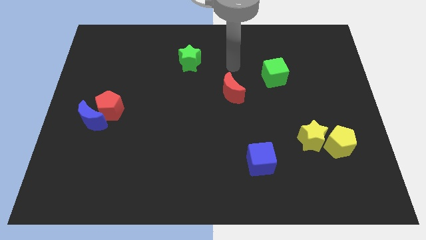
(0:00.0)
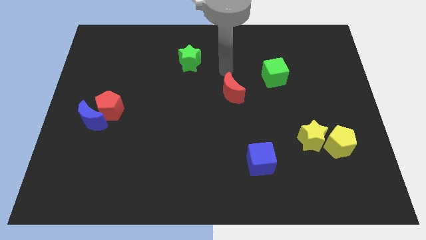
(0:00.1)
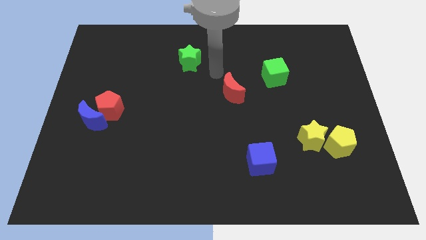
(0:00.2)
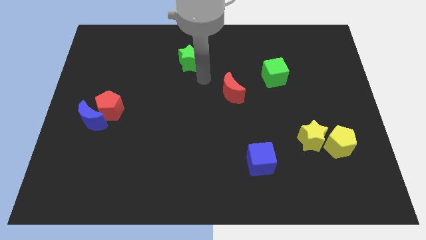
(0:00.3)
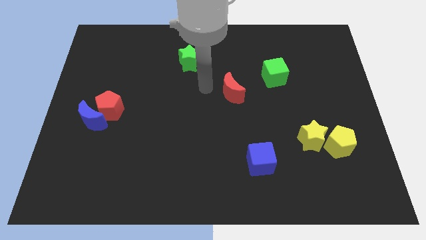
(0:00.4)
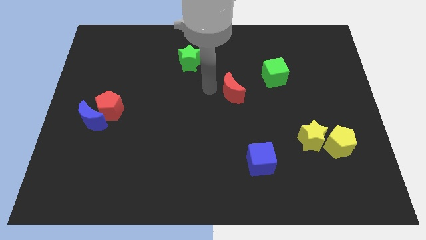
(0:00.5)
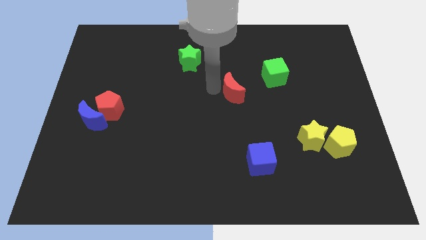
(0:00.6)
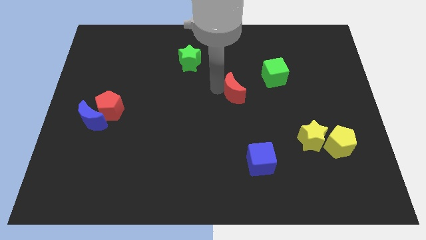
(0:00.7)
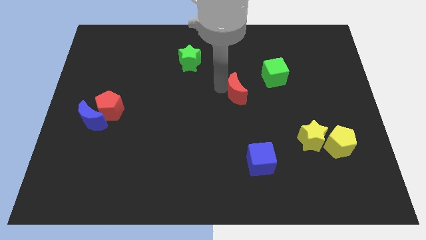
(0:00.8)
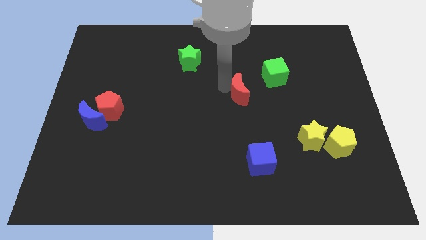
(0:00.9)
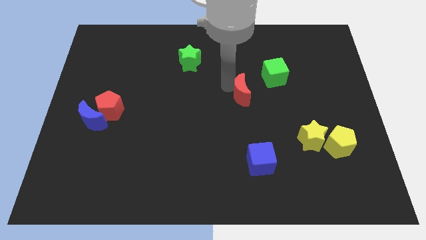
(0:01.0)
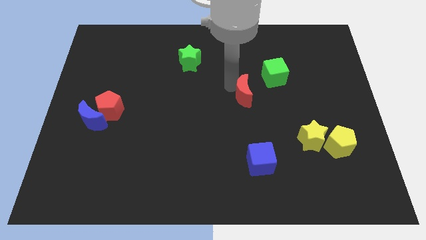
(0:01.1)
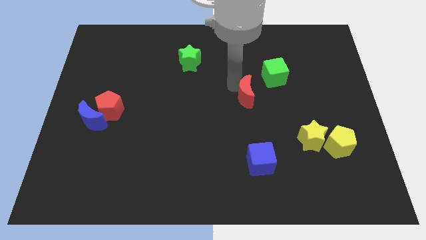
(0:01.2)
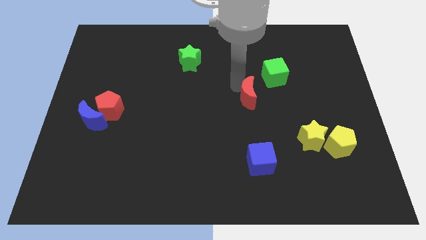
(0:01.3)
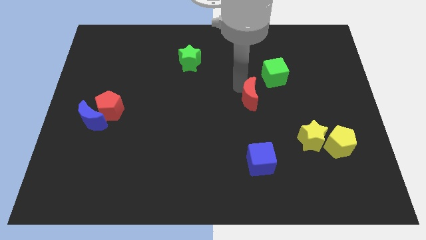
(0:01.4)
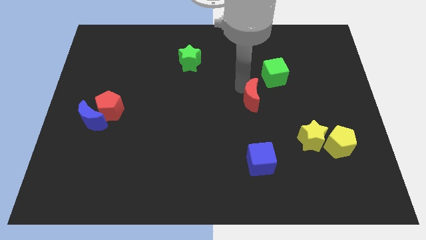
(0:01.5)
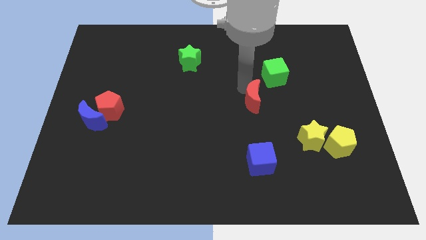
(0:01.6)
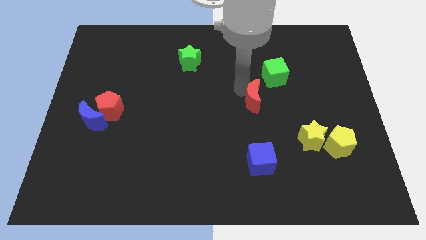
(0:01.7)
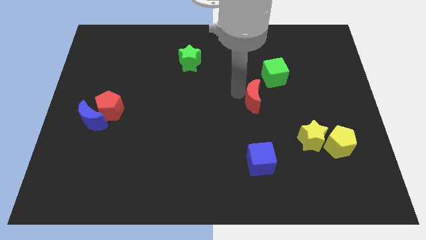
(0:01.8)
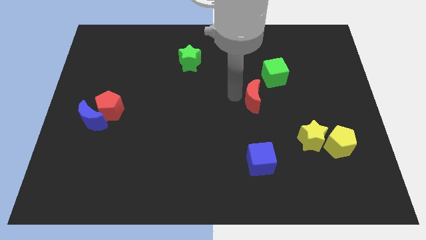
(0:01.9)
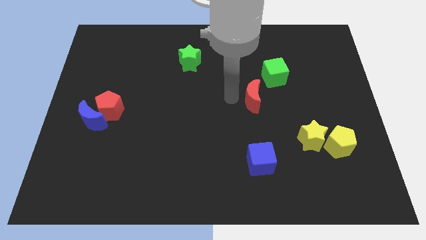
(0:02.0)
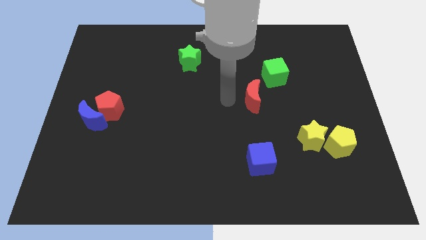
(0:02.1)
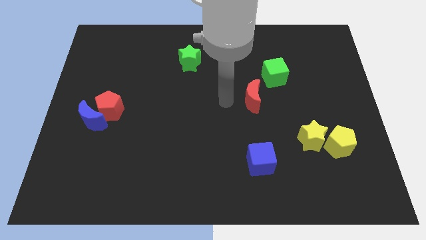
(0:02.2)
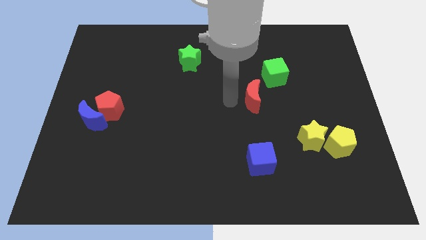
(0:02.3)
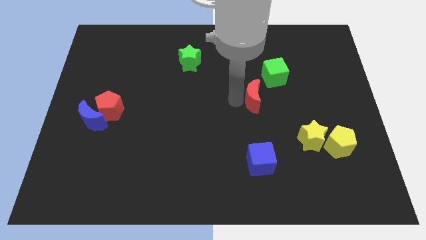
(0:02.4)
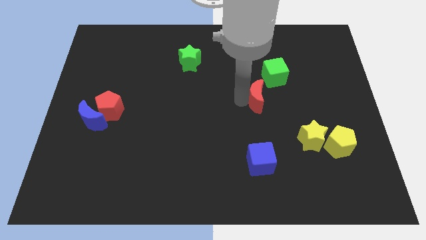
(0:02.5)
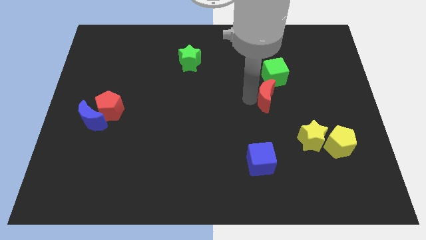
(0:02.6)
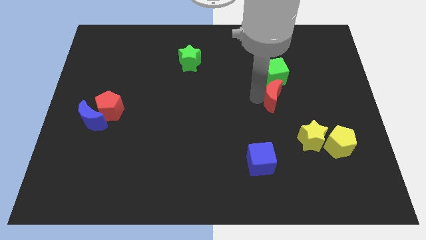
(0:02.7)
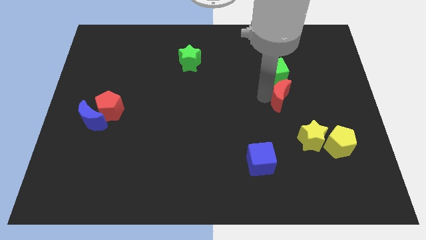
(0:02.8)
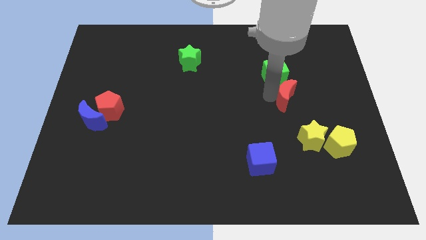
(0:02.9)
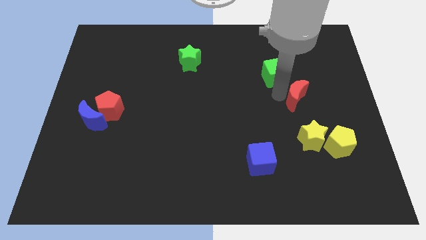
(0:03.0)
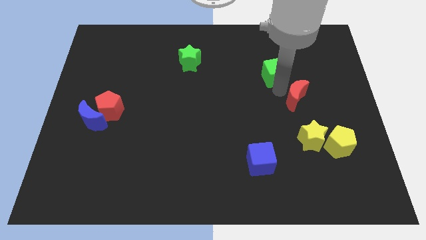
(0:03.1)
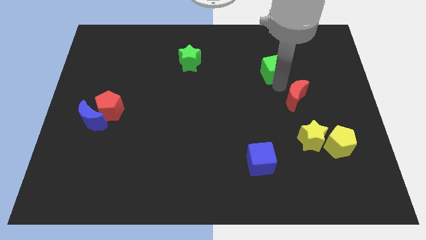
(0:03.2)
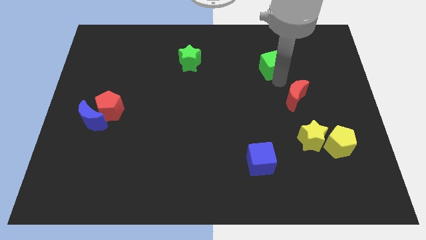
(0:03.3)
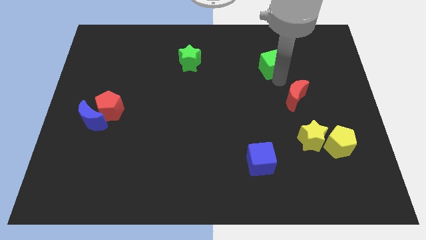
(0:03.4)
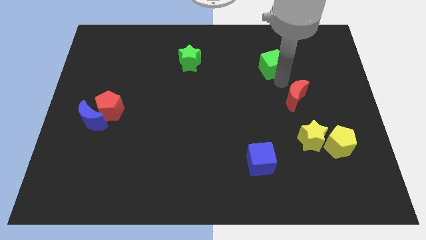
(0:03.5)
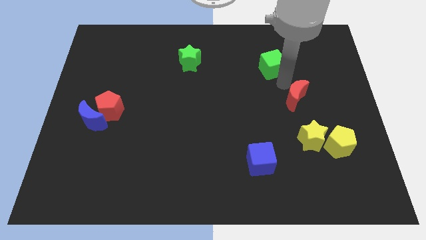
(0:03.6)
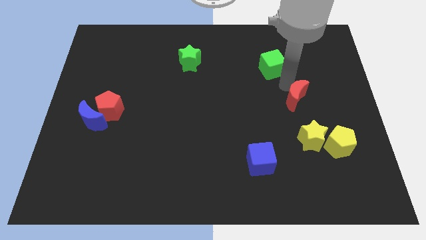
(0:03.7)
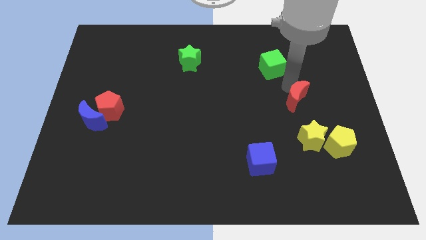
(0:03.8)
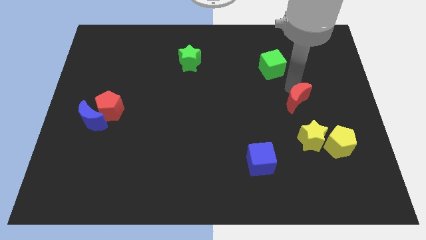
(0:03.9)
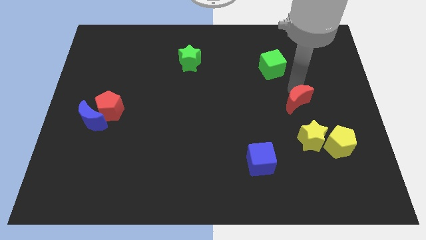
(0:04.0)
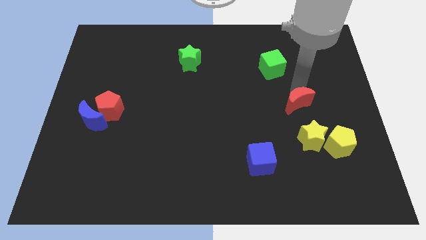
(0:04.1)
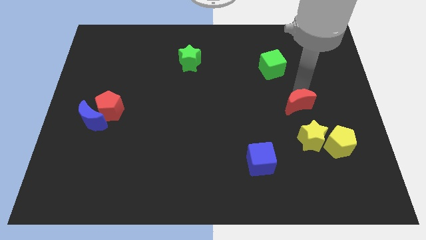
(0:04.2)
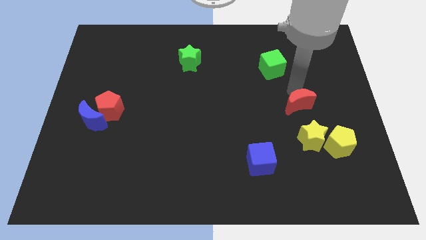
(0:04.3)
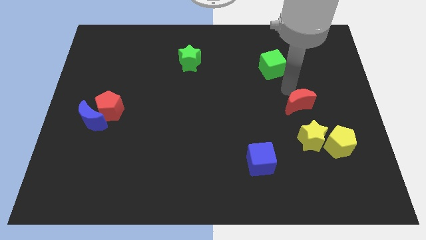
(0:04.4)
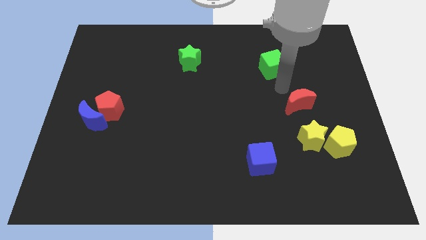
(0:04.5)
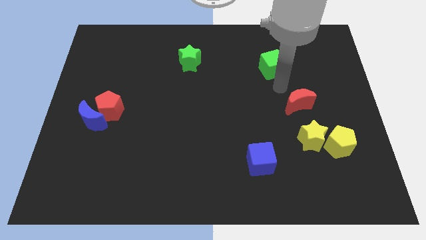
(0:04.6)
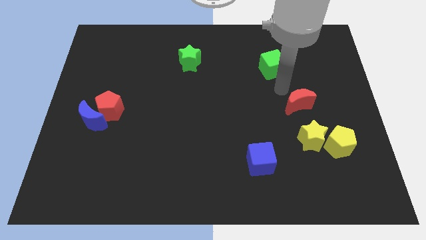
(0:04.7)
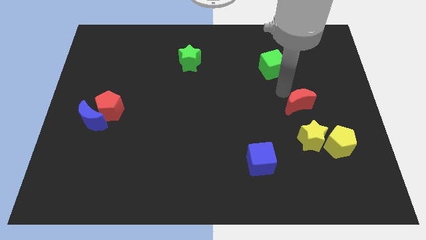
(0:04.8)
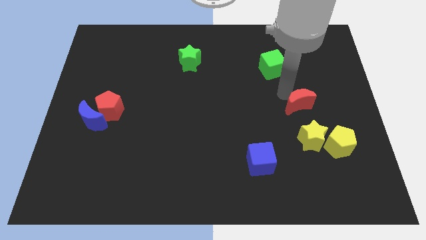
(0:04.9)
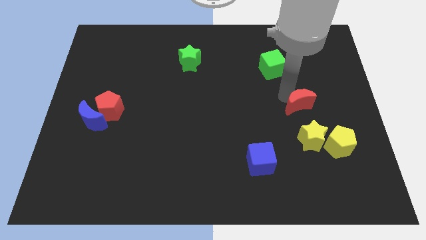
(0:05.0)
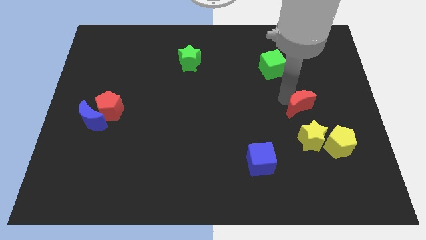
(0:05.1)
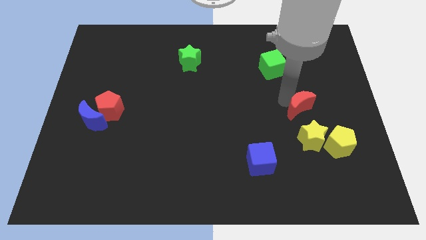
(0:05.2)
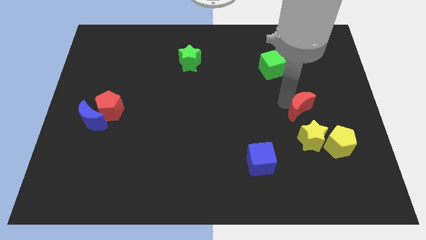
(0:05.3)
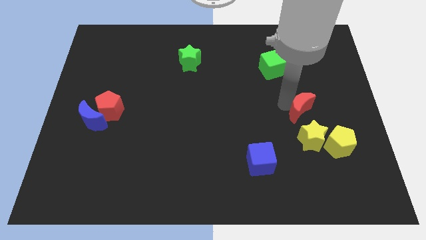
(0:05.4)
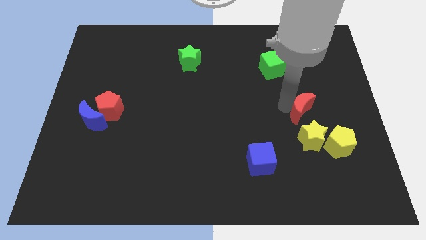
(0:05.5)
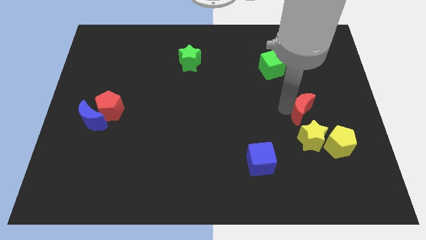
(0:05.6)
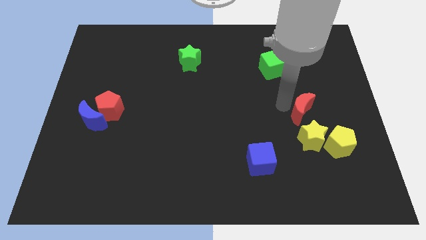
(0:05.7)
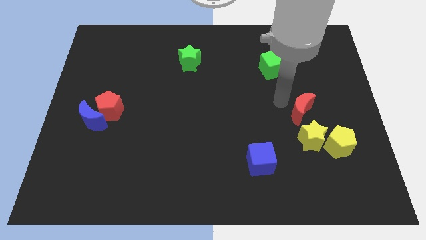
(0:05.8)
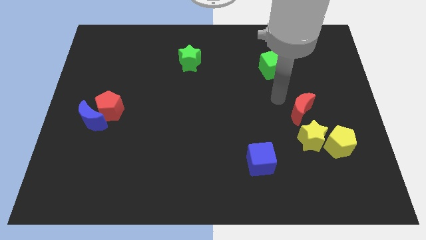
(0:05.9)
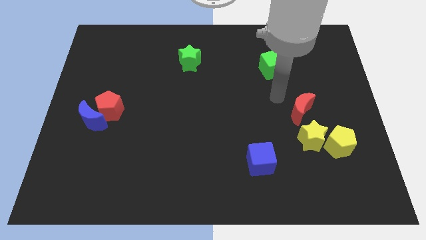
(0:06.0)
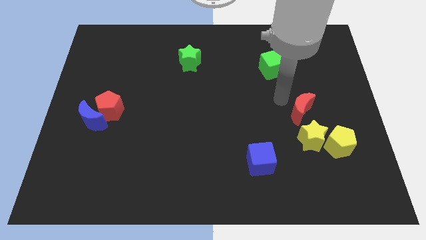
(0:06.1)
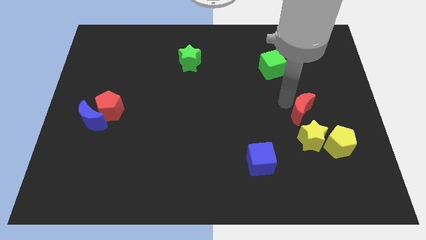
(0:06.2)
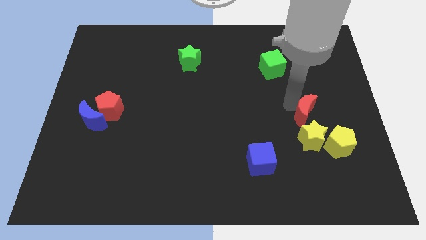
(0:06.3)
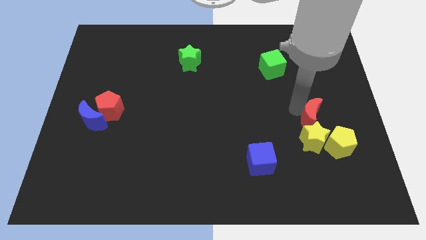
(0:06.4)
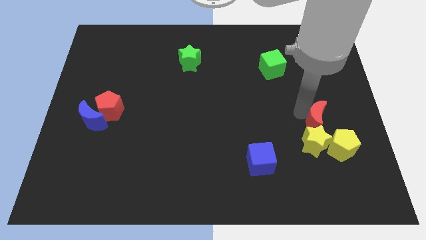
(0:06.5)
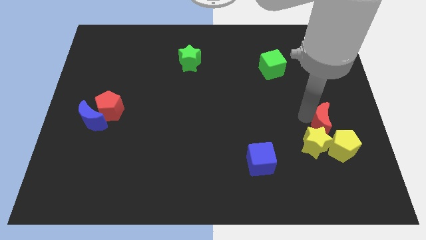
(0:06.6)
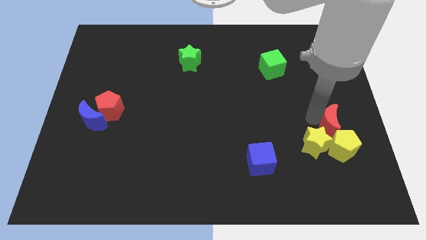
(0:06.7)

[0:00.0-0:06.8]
push the red moon to the yellow pentagon

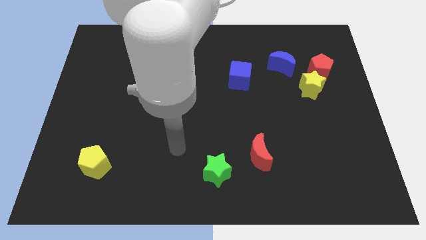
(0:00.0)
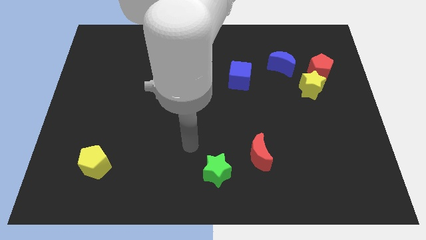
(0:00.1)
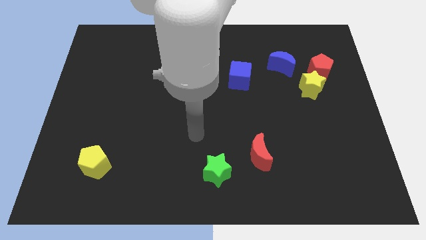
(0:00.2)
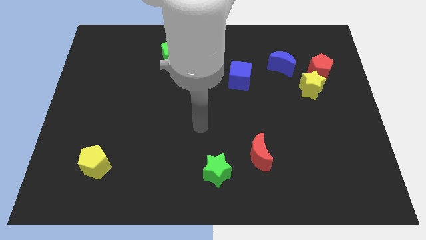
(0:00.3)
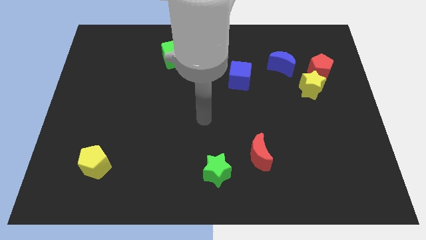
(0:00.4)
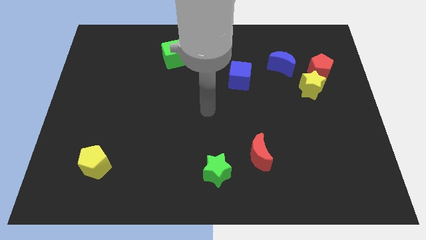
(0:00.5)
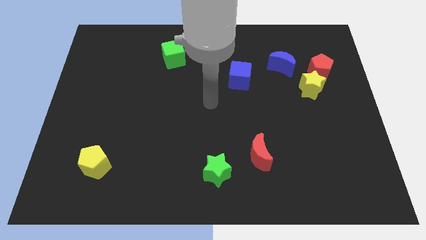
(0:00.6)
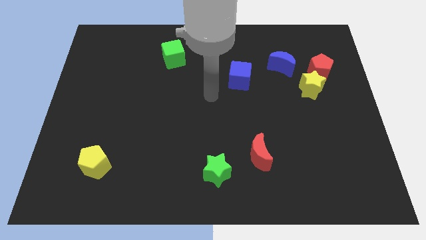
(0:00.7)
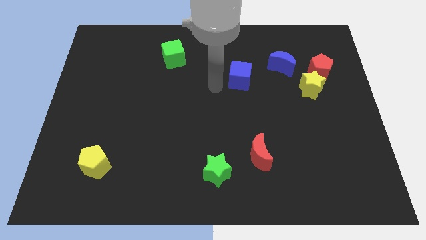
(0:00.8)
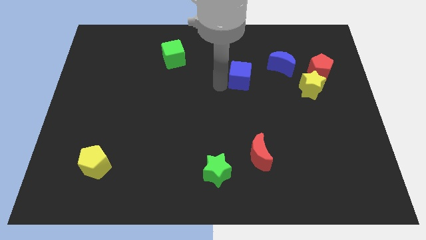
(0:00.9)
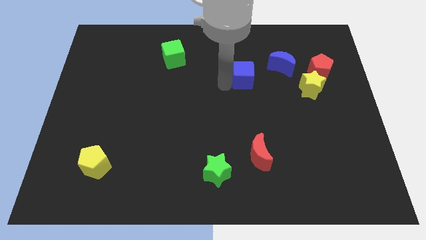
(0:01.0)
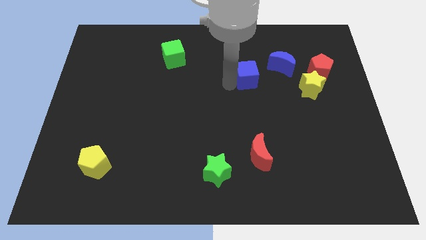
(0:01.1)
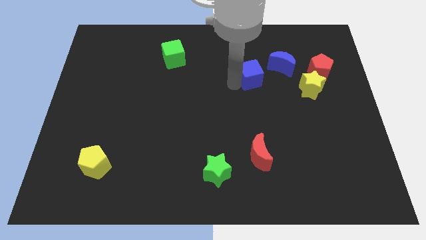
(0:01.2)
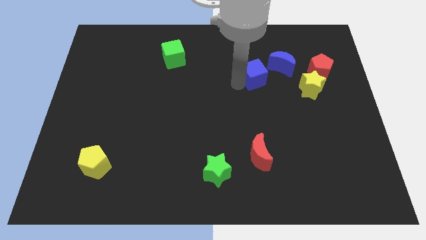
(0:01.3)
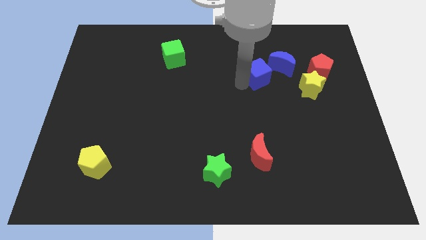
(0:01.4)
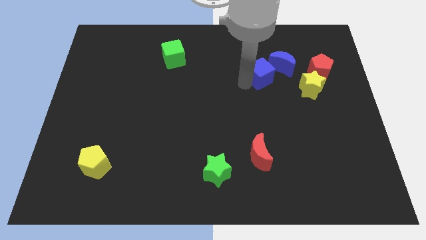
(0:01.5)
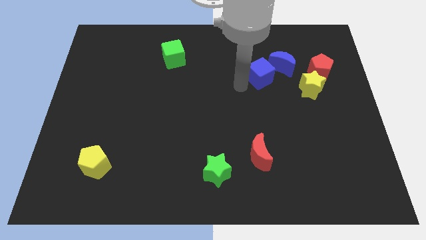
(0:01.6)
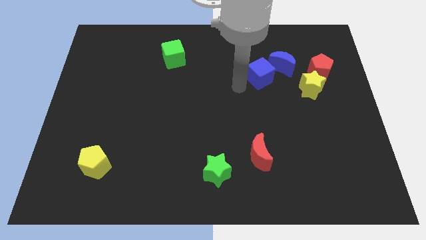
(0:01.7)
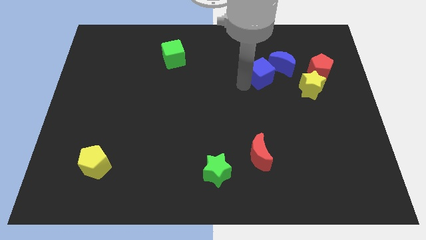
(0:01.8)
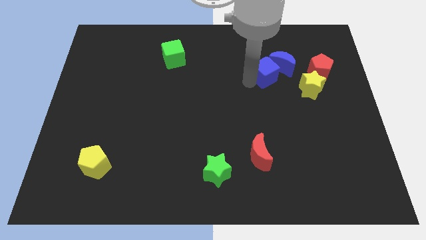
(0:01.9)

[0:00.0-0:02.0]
move the blue cube next to the blue moon
